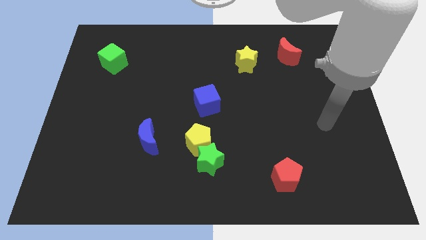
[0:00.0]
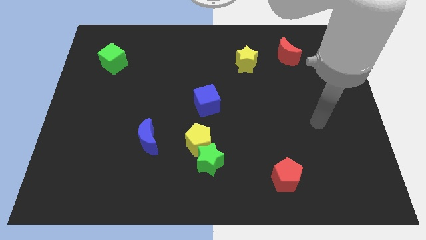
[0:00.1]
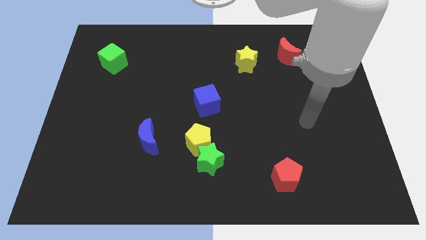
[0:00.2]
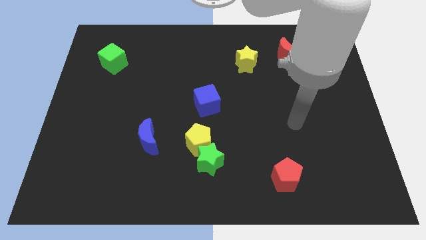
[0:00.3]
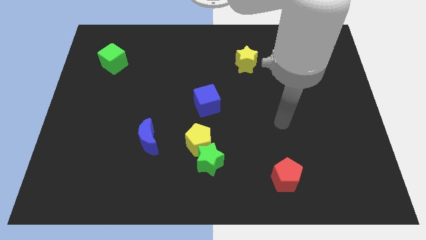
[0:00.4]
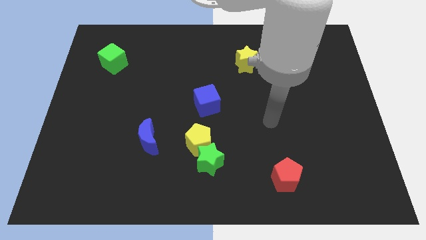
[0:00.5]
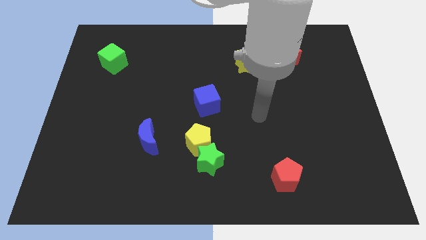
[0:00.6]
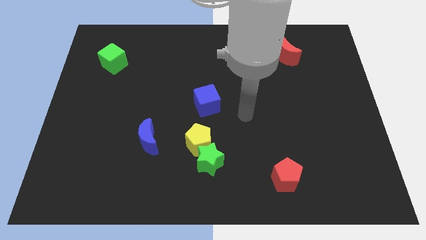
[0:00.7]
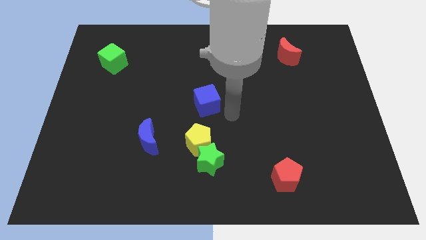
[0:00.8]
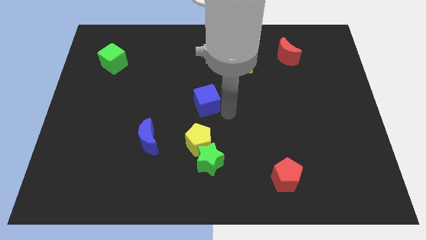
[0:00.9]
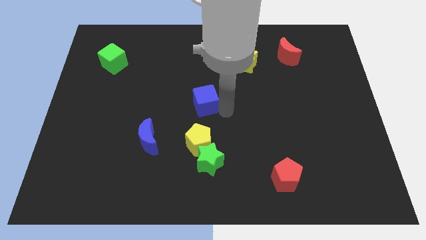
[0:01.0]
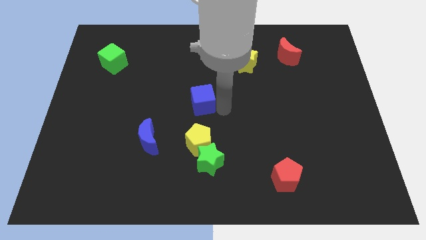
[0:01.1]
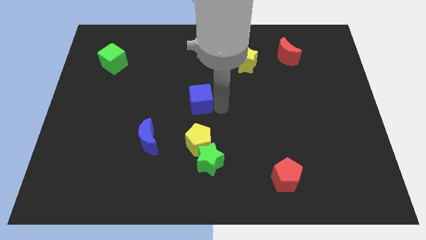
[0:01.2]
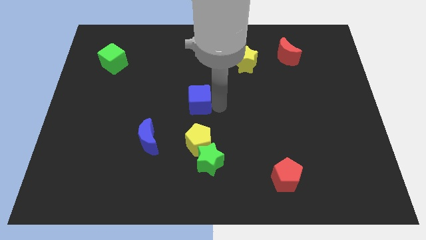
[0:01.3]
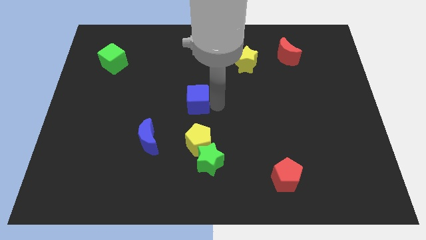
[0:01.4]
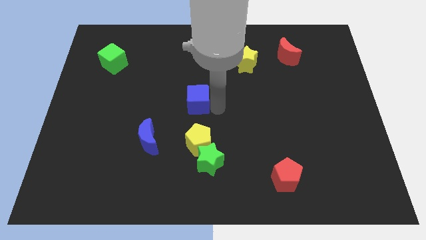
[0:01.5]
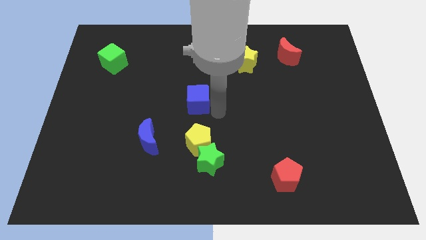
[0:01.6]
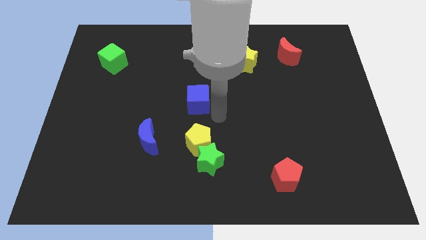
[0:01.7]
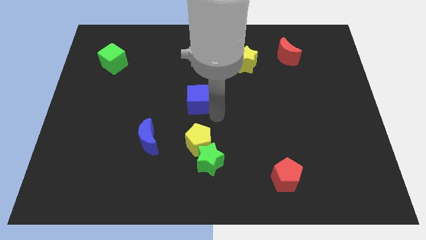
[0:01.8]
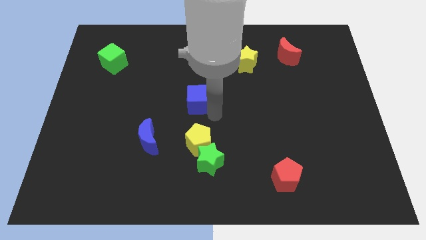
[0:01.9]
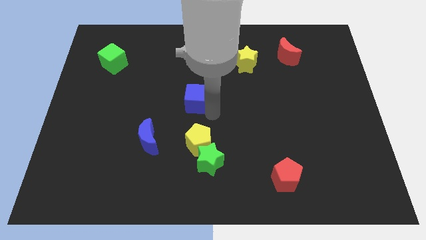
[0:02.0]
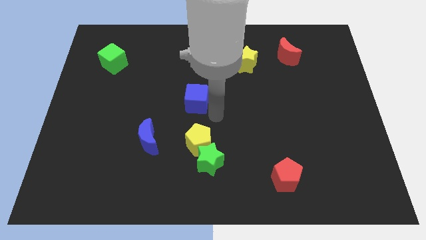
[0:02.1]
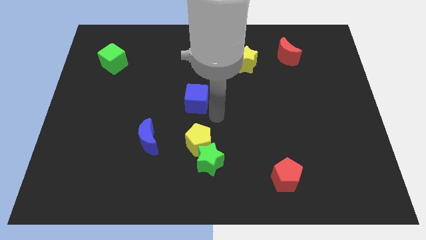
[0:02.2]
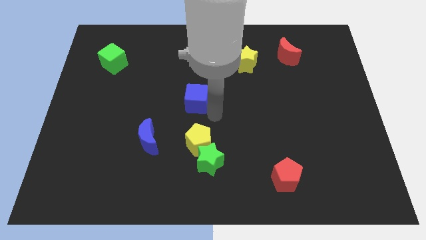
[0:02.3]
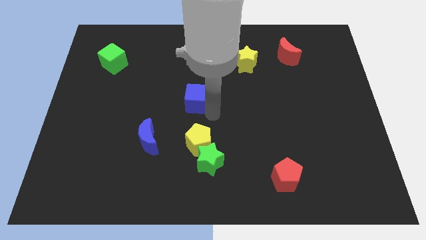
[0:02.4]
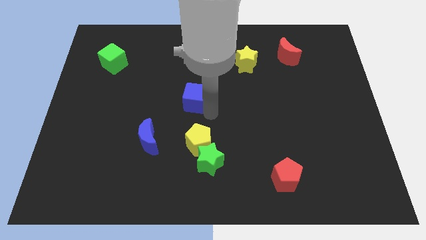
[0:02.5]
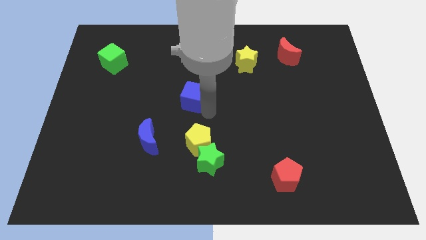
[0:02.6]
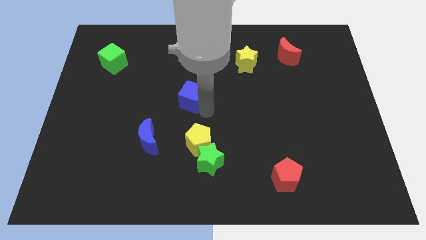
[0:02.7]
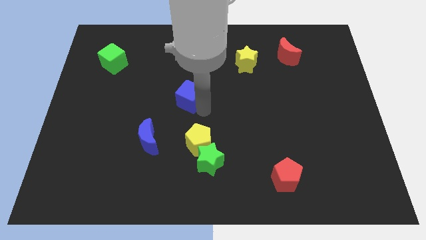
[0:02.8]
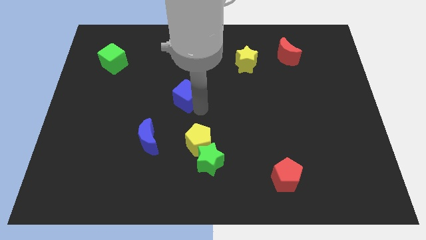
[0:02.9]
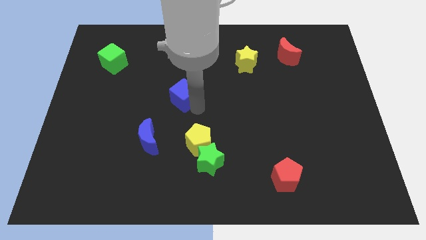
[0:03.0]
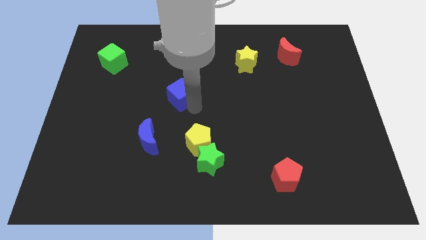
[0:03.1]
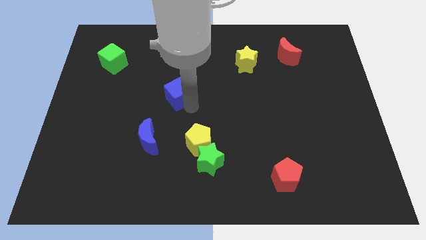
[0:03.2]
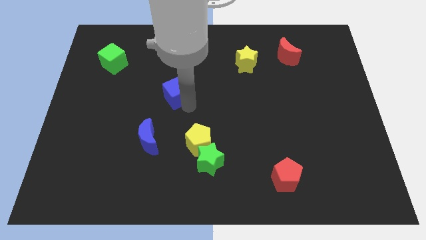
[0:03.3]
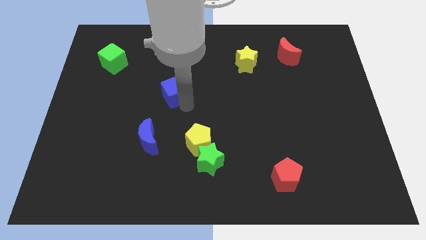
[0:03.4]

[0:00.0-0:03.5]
slightly push the blue cube up and left

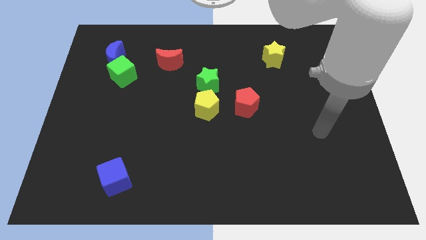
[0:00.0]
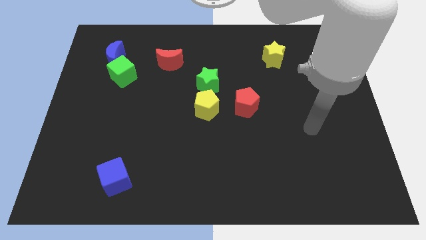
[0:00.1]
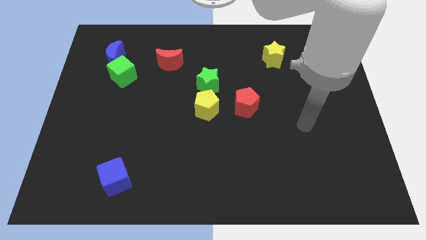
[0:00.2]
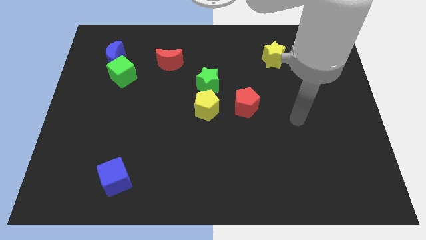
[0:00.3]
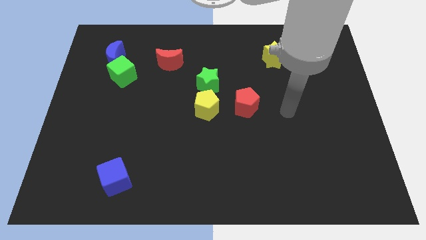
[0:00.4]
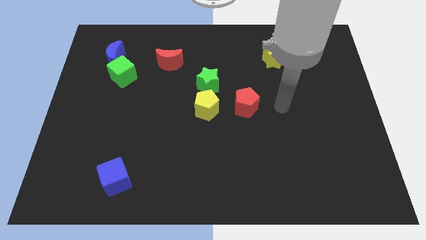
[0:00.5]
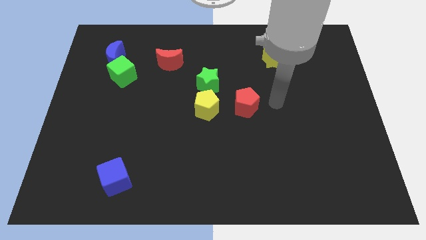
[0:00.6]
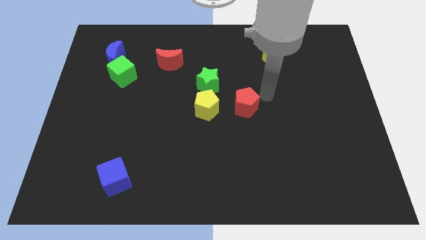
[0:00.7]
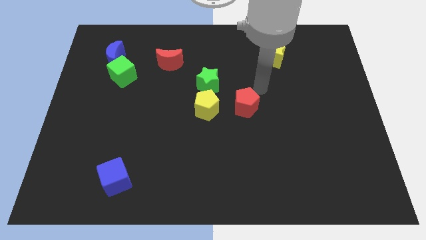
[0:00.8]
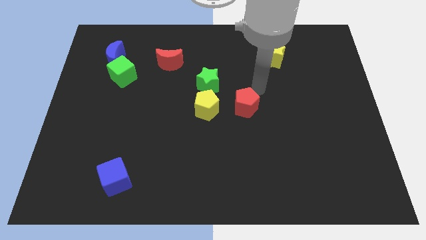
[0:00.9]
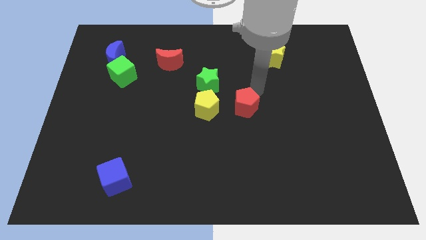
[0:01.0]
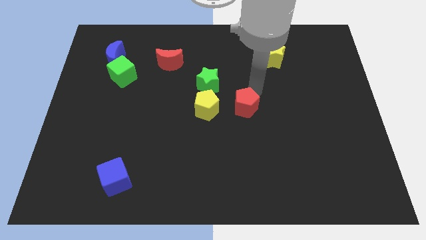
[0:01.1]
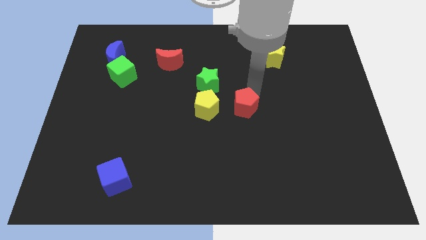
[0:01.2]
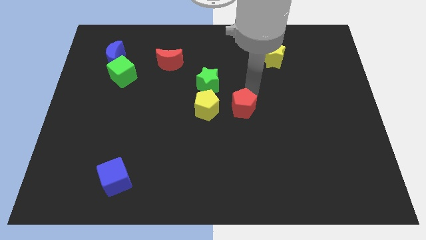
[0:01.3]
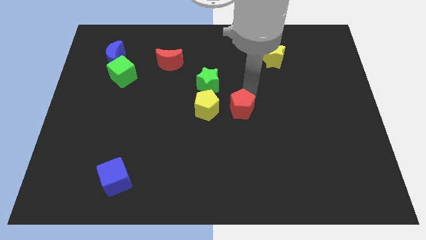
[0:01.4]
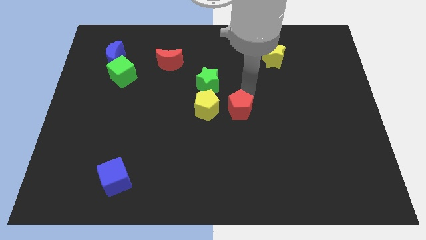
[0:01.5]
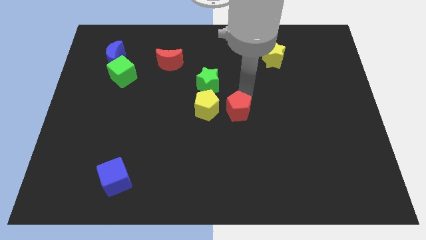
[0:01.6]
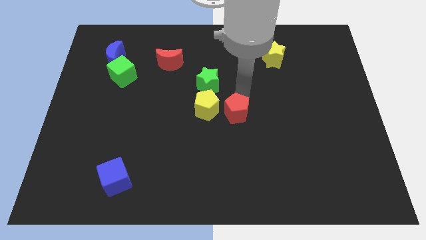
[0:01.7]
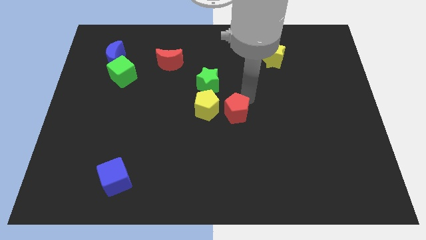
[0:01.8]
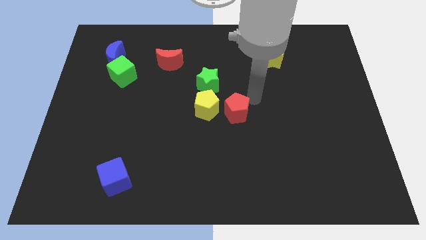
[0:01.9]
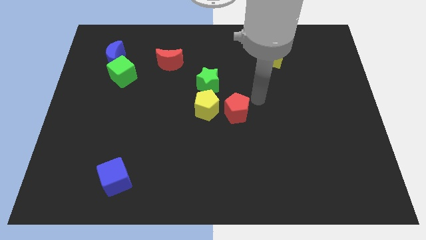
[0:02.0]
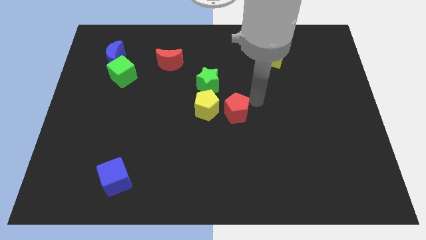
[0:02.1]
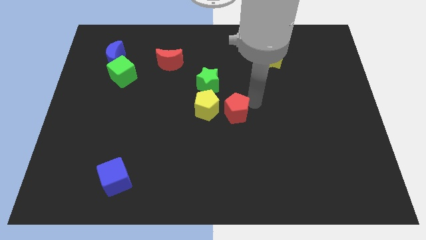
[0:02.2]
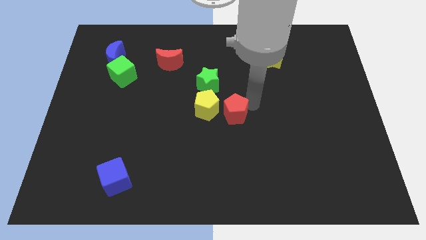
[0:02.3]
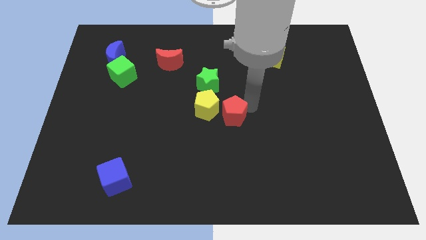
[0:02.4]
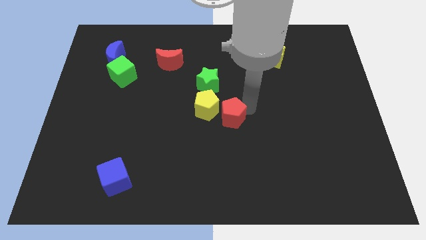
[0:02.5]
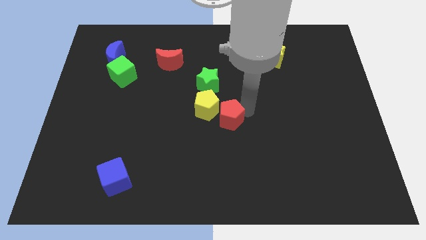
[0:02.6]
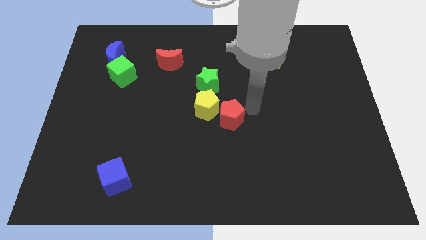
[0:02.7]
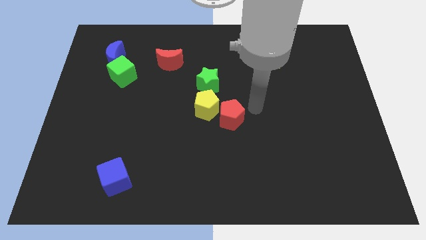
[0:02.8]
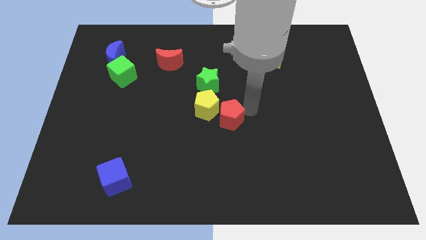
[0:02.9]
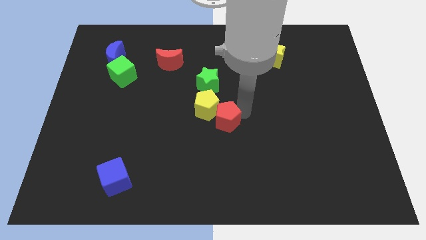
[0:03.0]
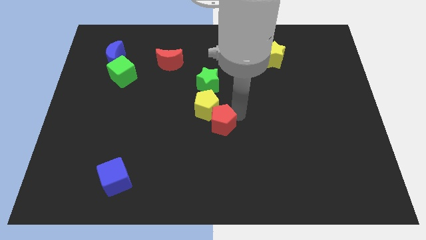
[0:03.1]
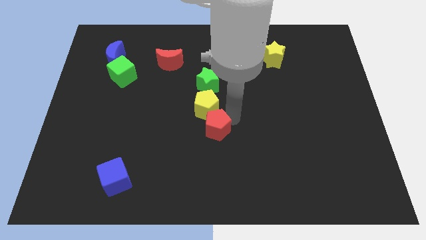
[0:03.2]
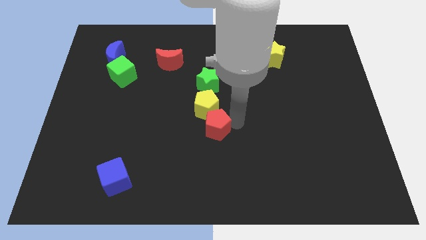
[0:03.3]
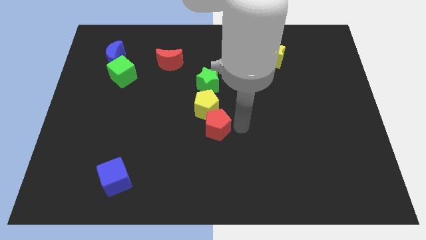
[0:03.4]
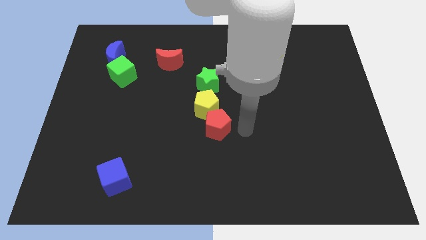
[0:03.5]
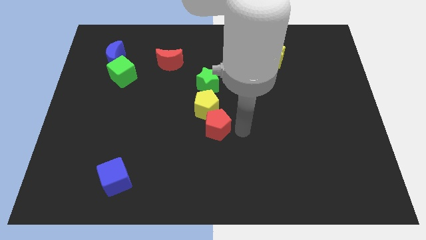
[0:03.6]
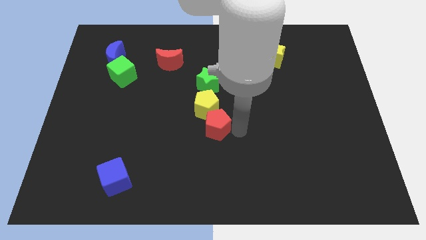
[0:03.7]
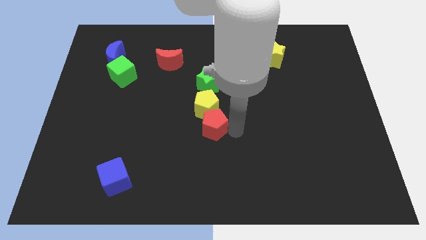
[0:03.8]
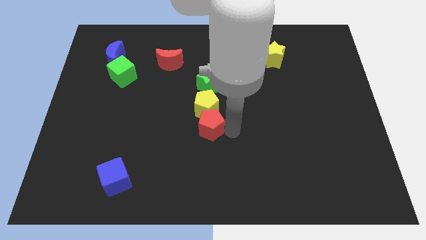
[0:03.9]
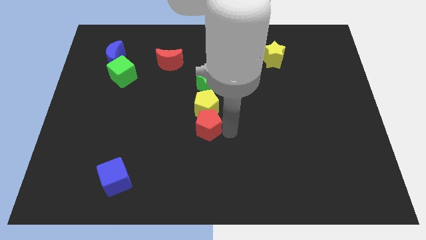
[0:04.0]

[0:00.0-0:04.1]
move the red pentagon a bit to the left

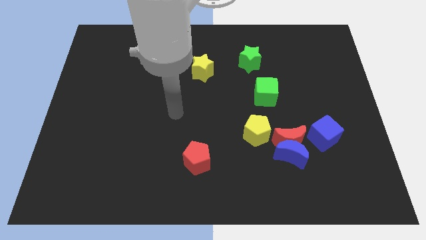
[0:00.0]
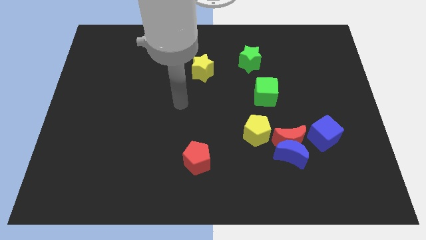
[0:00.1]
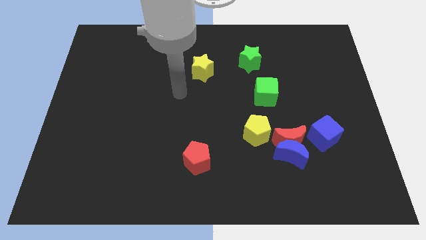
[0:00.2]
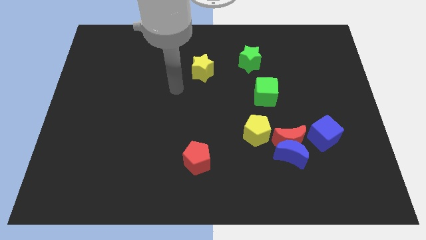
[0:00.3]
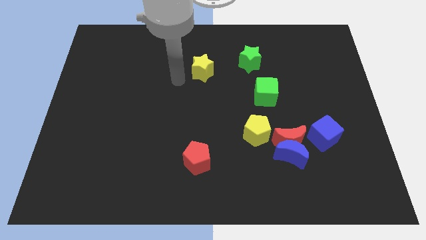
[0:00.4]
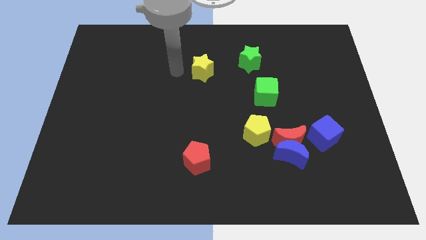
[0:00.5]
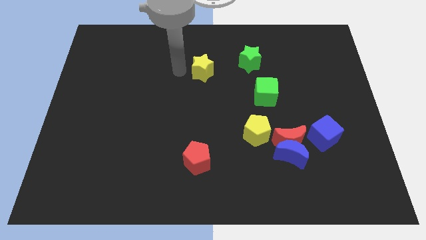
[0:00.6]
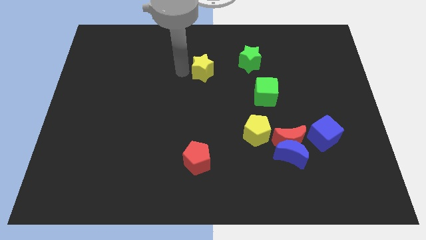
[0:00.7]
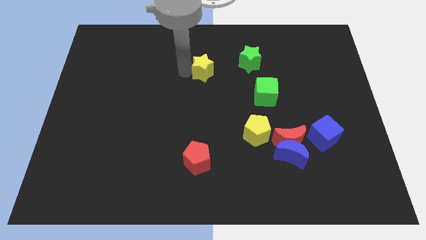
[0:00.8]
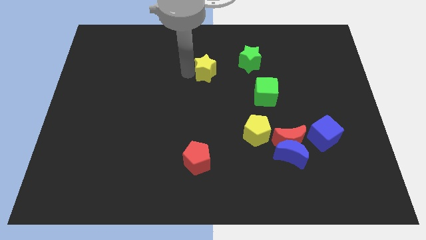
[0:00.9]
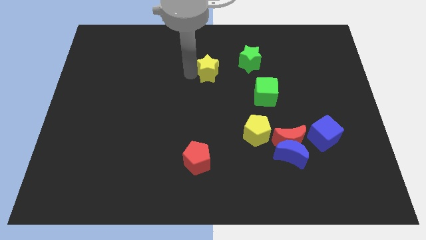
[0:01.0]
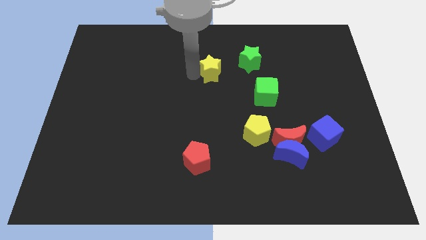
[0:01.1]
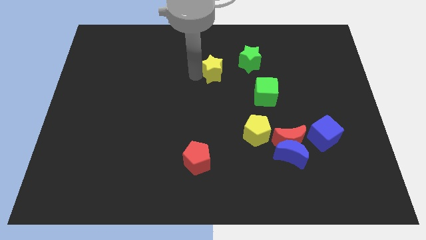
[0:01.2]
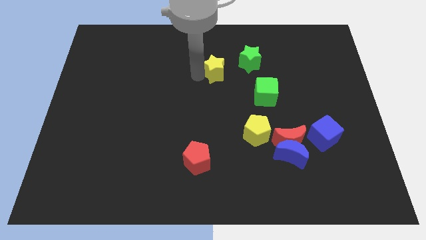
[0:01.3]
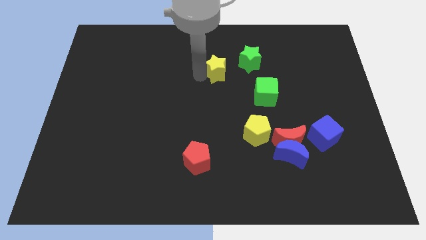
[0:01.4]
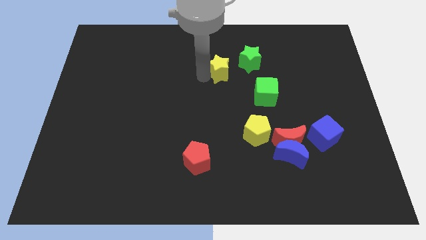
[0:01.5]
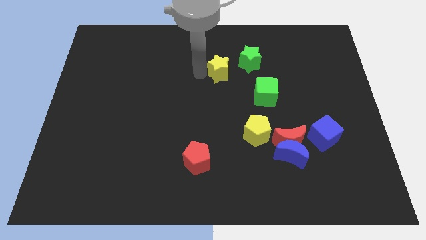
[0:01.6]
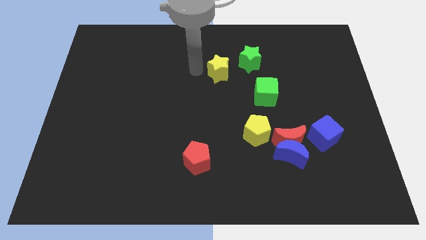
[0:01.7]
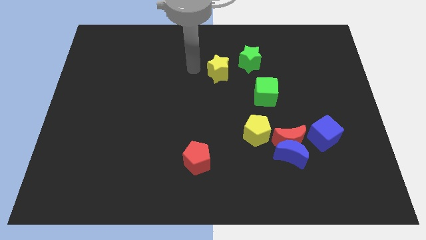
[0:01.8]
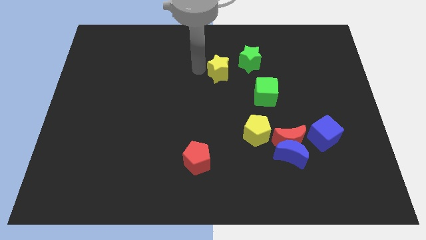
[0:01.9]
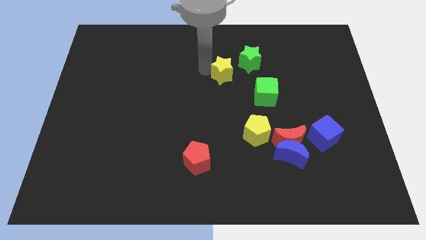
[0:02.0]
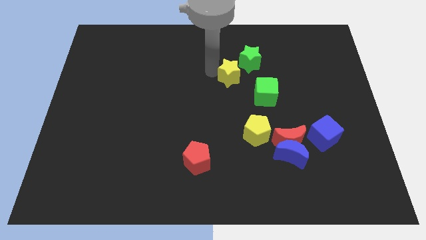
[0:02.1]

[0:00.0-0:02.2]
move the yellow star a little to the right
